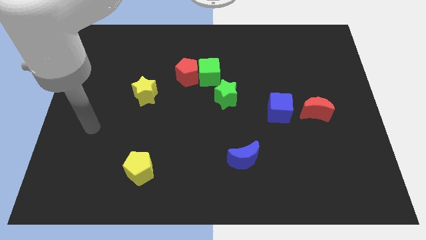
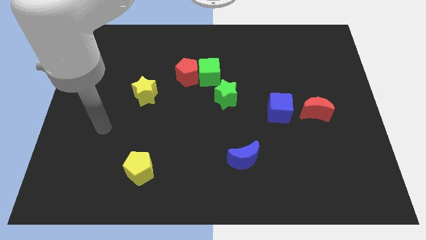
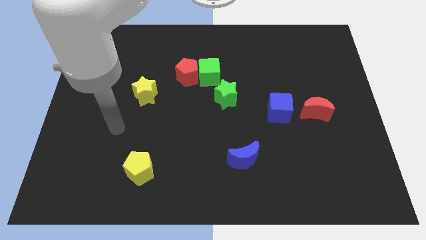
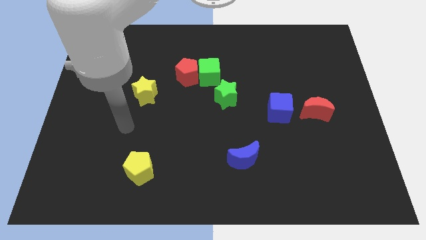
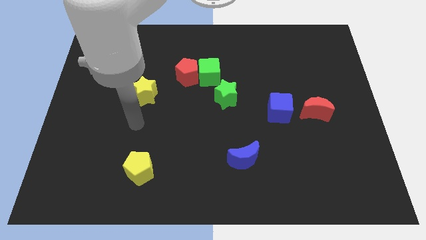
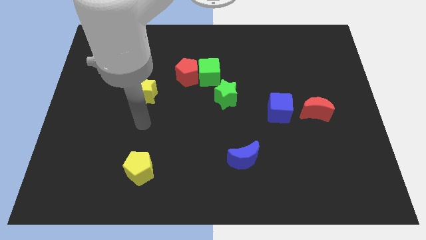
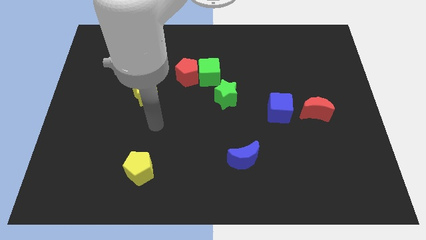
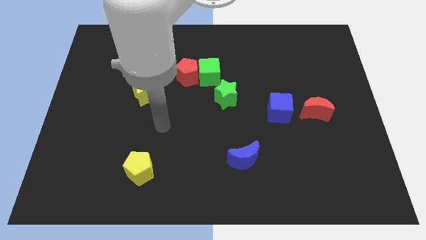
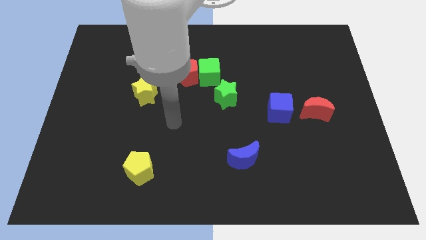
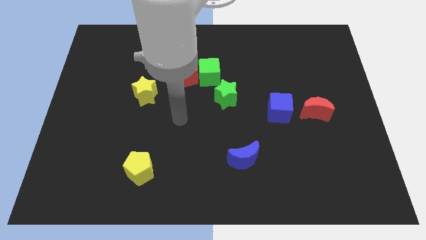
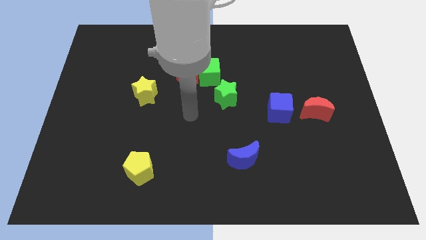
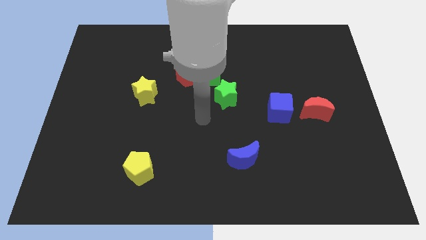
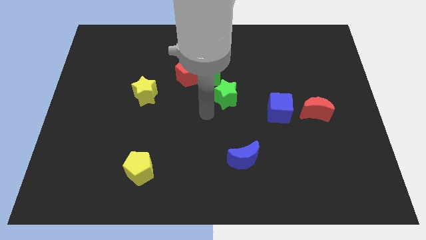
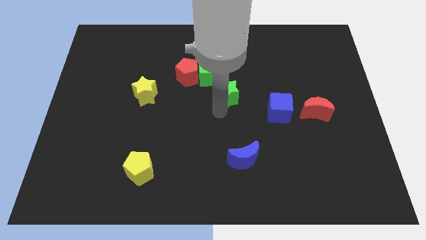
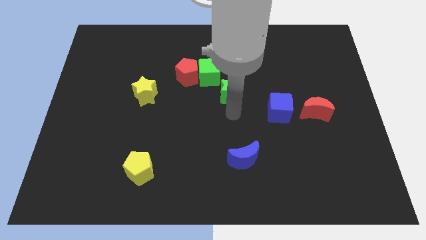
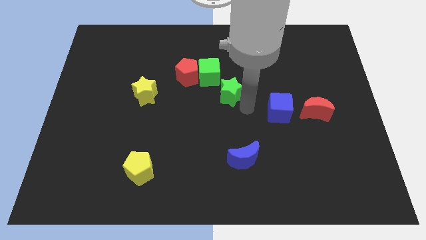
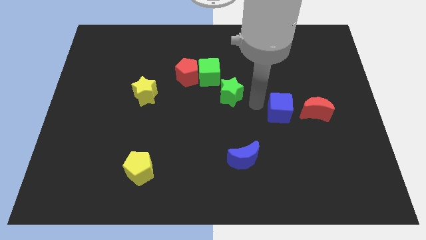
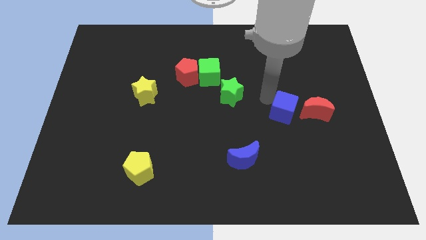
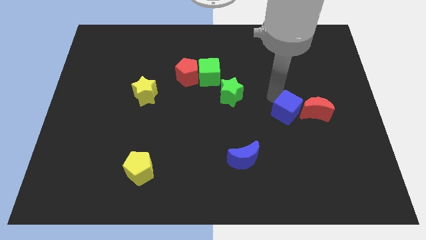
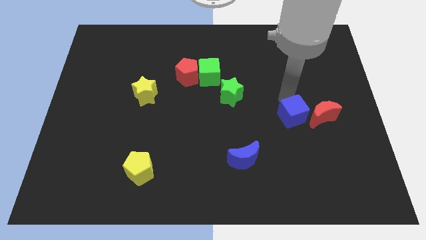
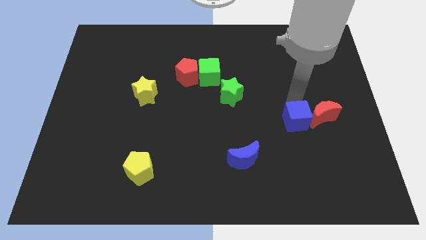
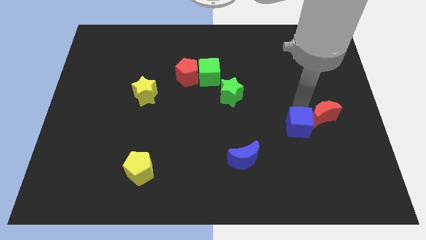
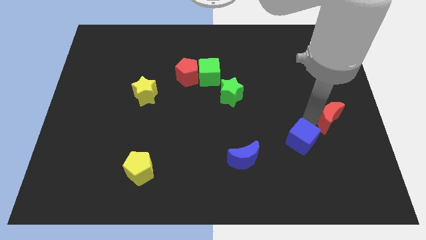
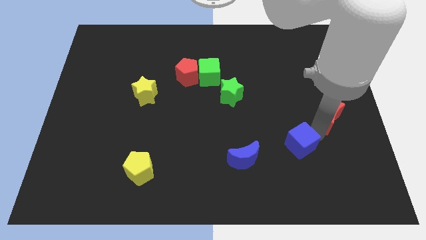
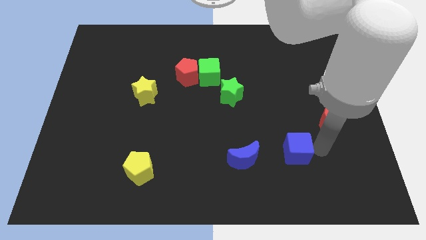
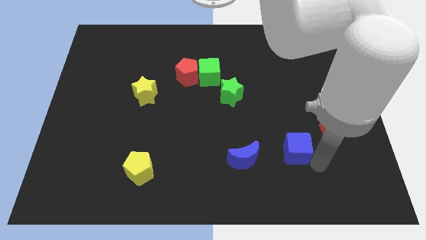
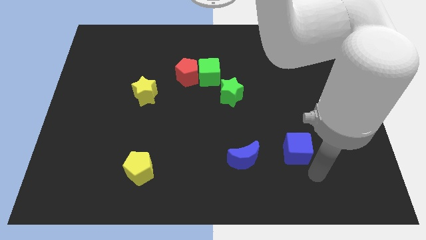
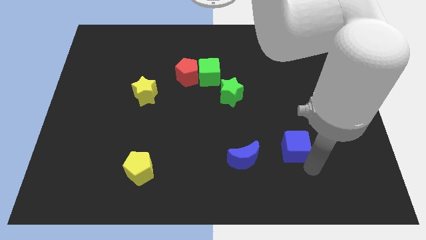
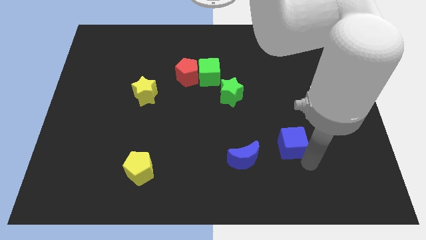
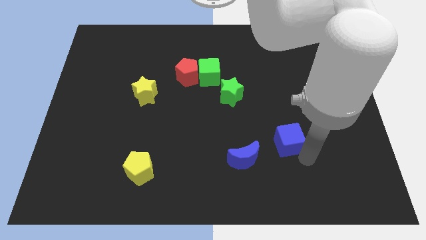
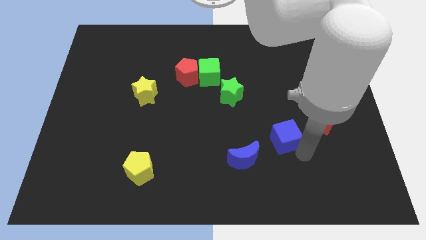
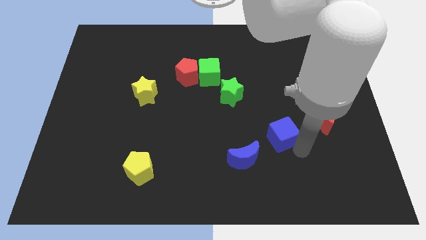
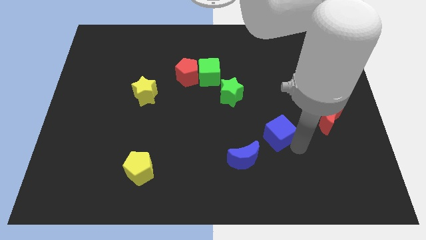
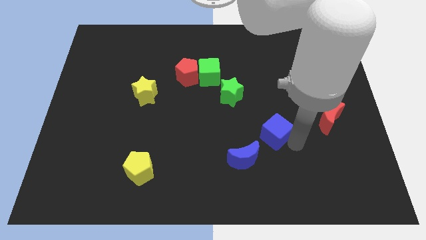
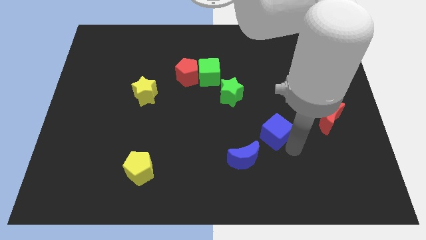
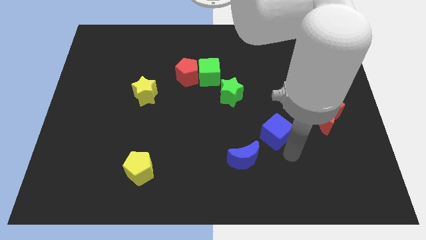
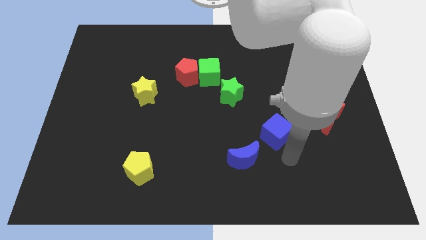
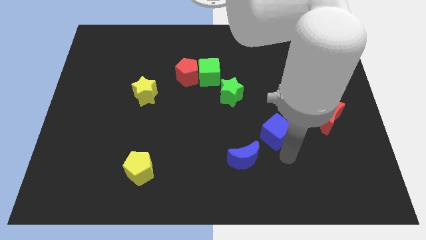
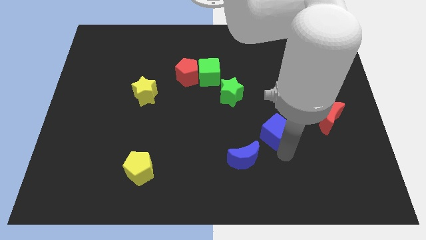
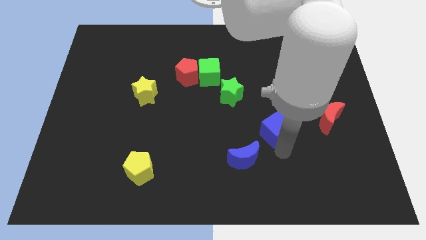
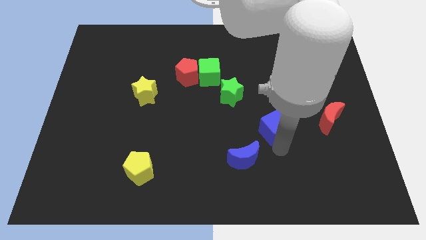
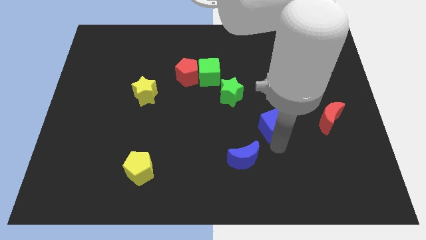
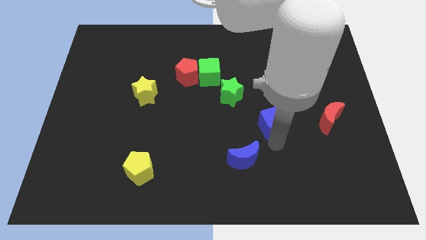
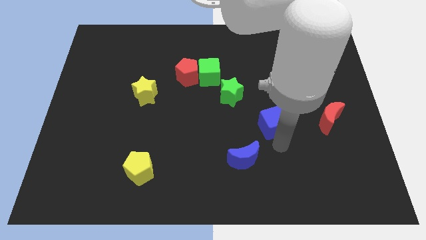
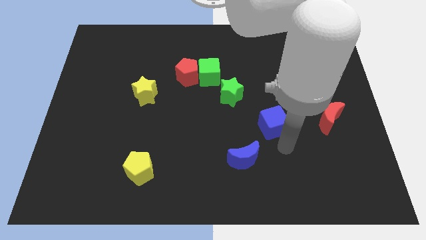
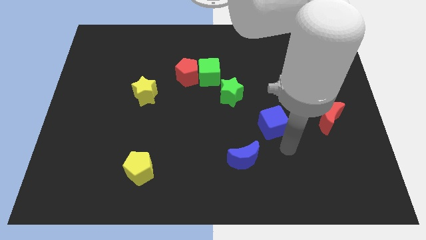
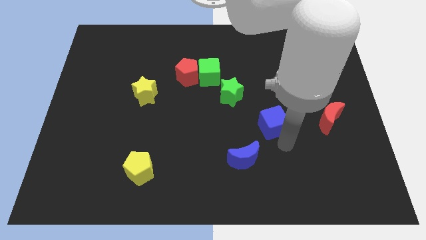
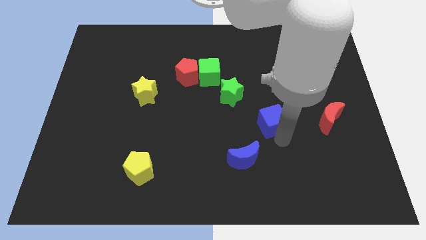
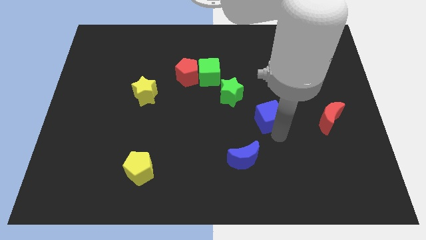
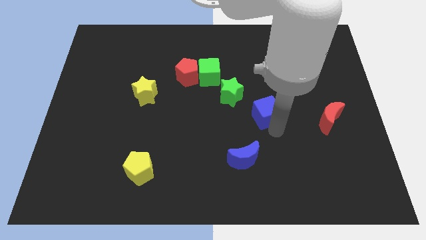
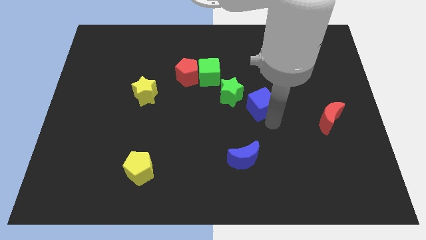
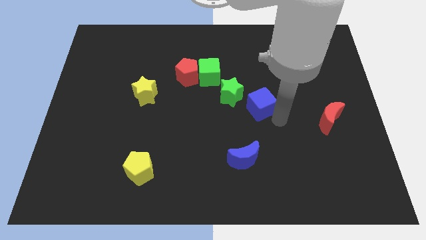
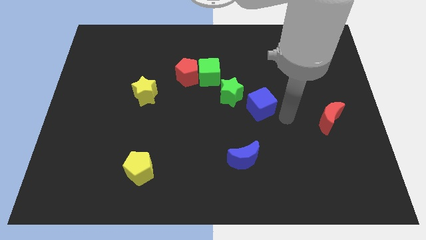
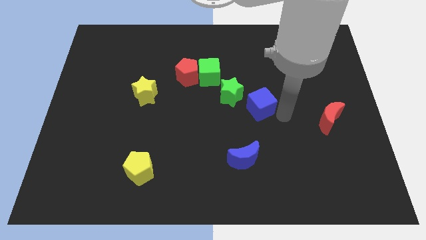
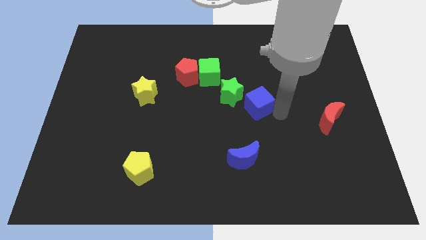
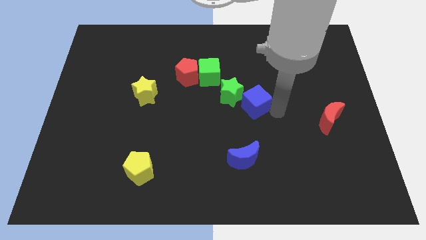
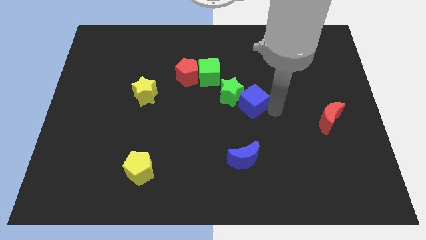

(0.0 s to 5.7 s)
put the blue cube to the green star

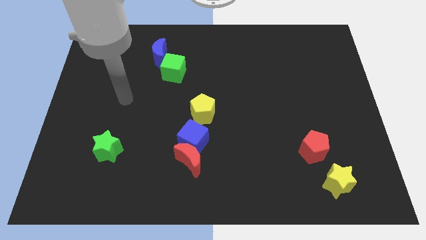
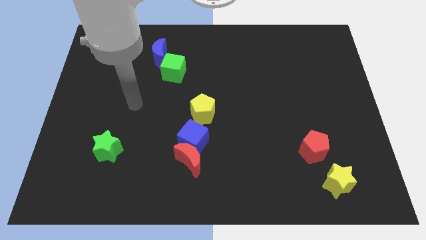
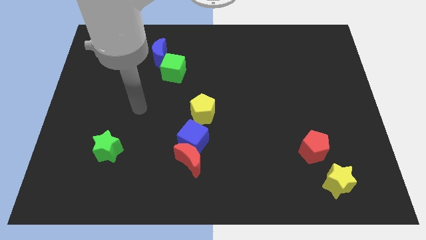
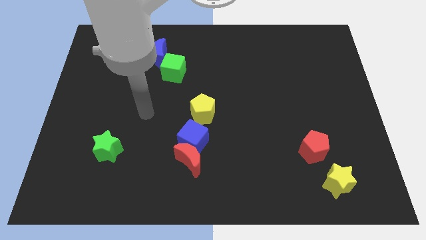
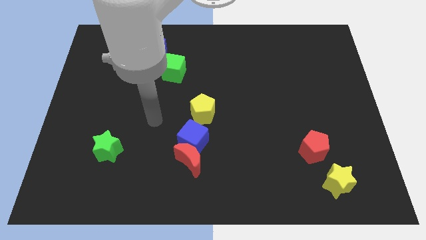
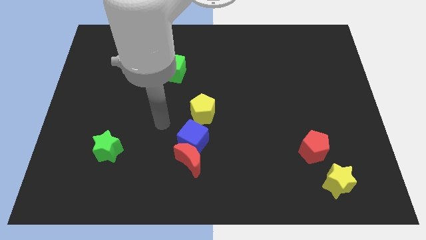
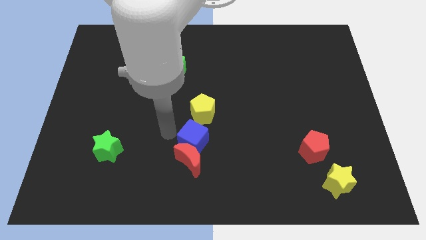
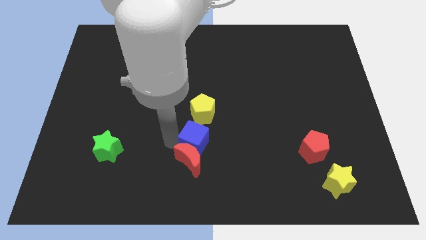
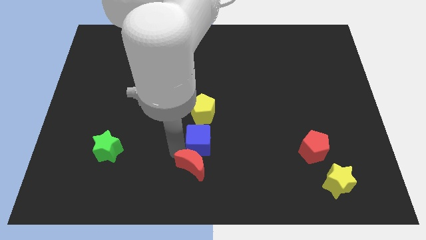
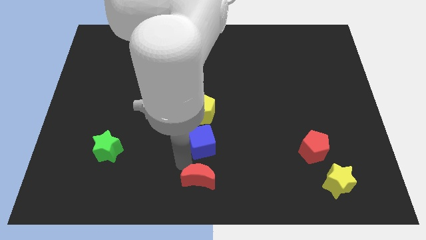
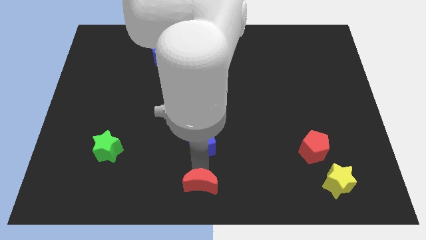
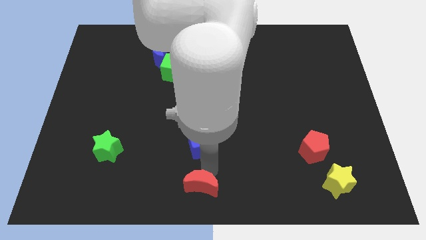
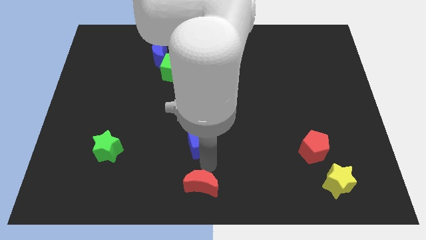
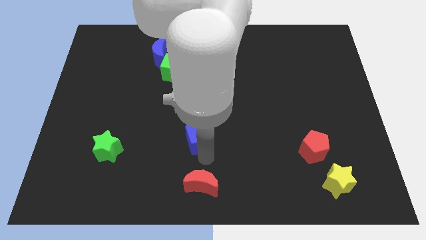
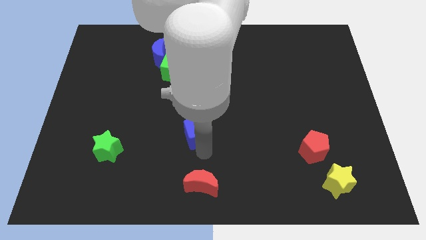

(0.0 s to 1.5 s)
push the blue cube next to the yellow pentagon
